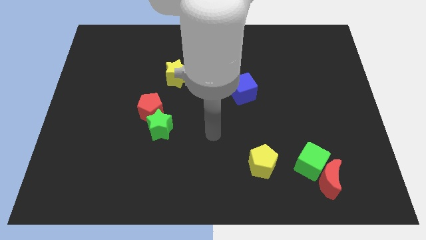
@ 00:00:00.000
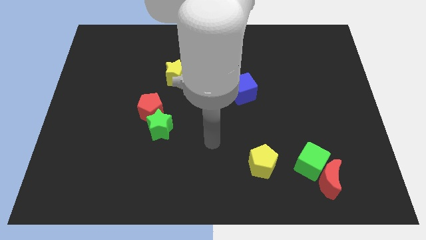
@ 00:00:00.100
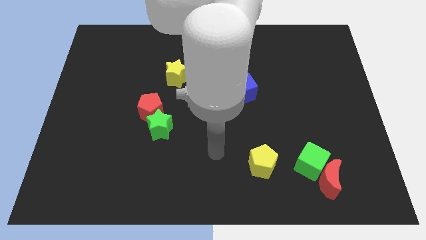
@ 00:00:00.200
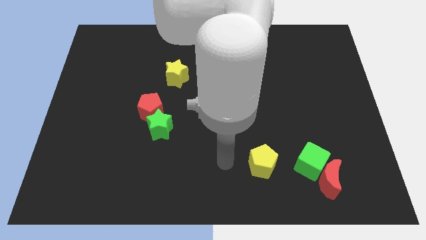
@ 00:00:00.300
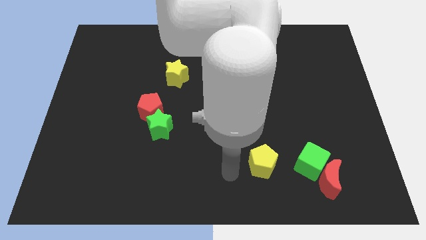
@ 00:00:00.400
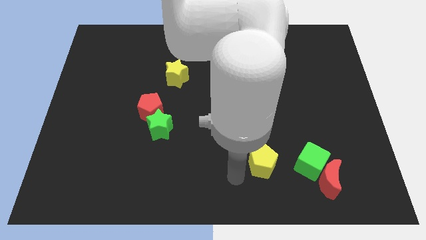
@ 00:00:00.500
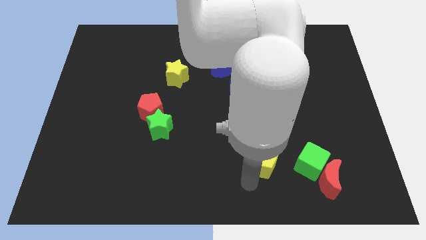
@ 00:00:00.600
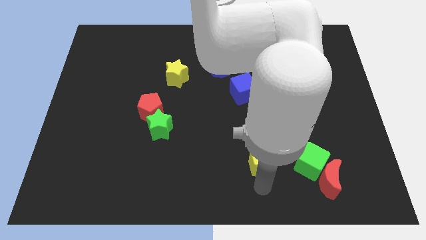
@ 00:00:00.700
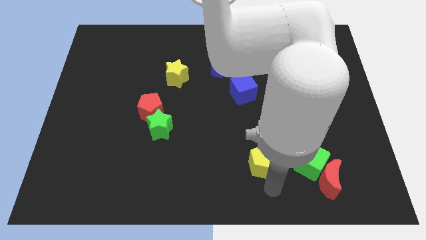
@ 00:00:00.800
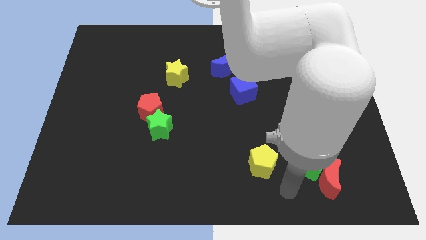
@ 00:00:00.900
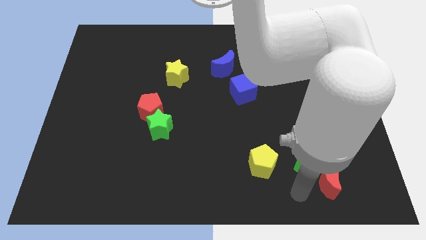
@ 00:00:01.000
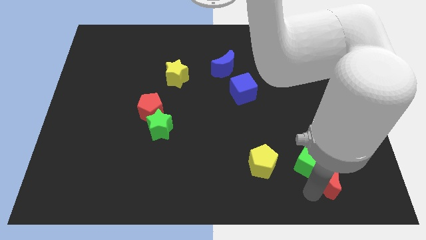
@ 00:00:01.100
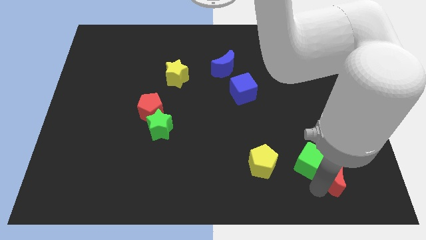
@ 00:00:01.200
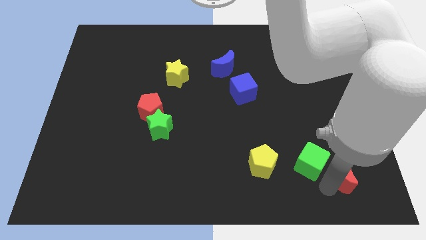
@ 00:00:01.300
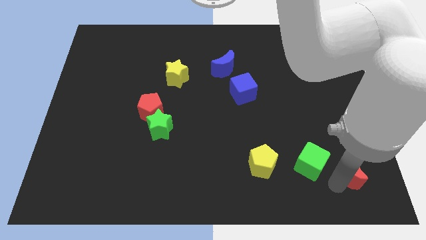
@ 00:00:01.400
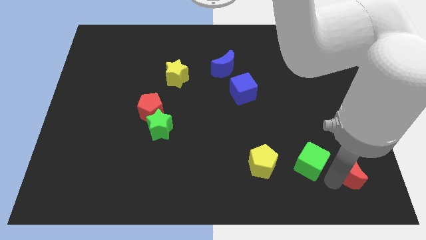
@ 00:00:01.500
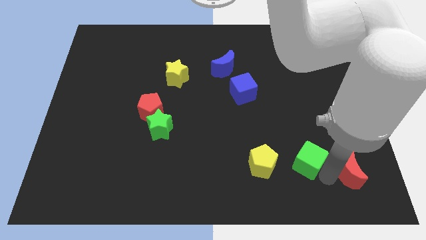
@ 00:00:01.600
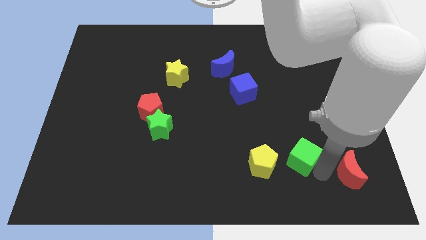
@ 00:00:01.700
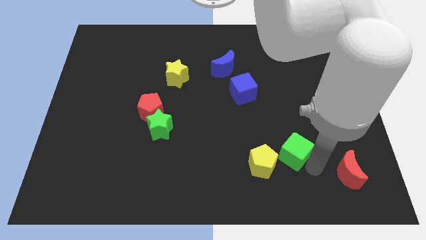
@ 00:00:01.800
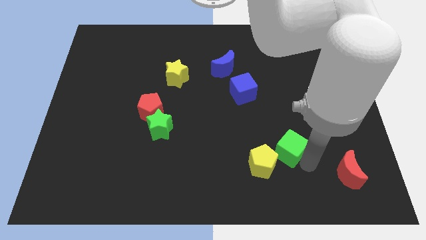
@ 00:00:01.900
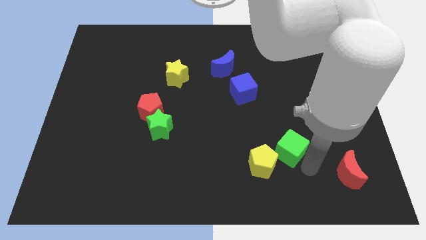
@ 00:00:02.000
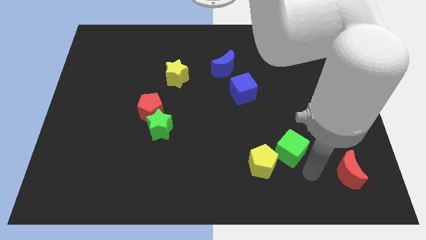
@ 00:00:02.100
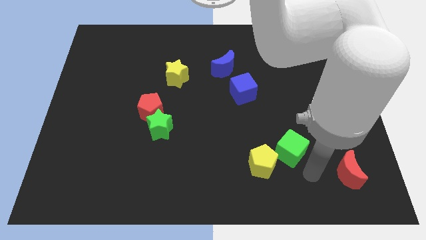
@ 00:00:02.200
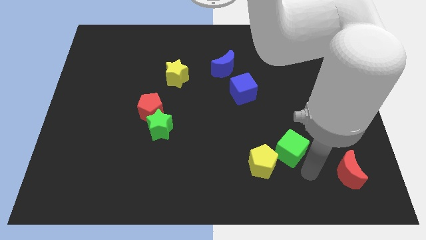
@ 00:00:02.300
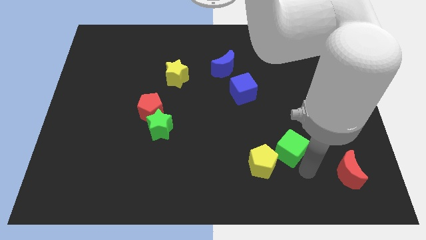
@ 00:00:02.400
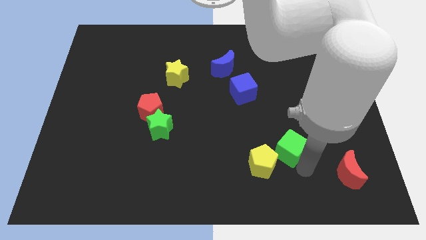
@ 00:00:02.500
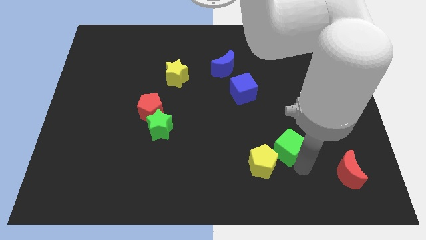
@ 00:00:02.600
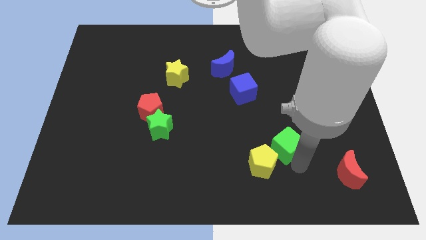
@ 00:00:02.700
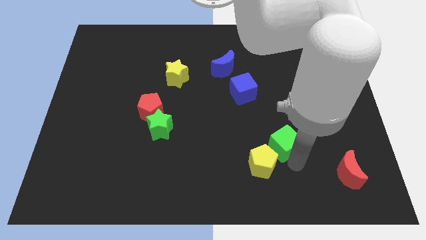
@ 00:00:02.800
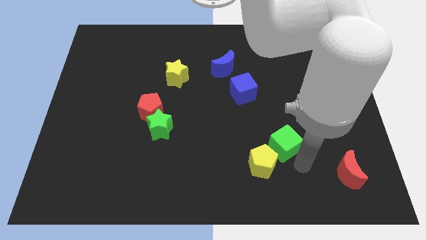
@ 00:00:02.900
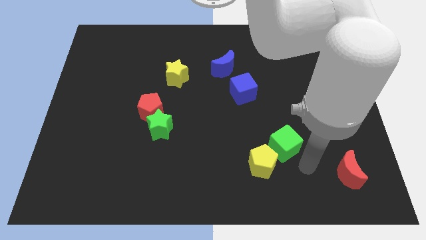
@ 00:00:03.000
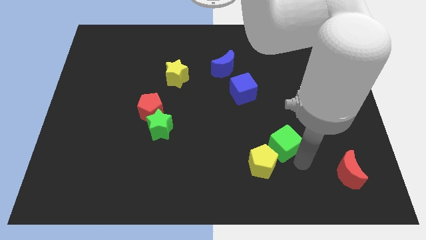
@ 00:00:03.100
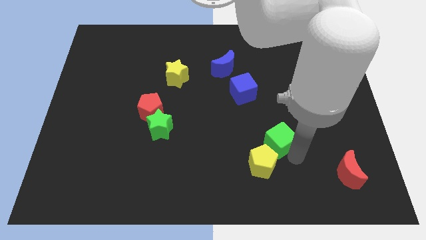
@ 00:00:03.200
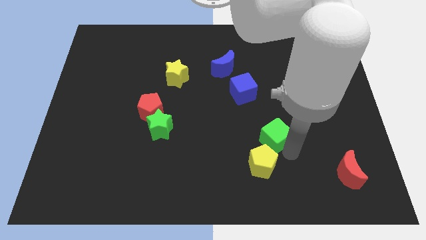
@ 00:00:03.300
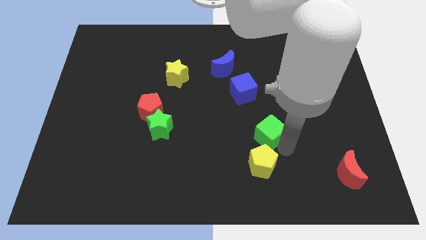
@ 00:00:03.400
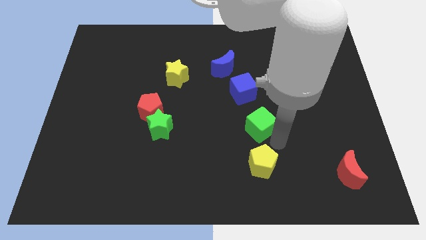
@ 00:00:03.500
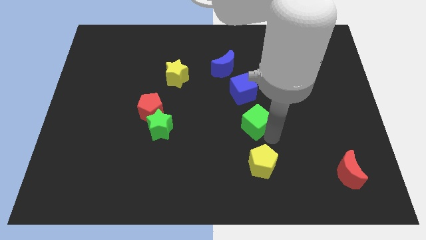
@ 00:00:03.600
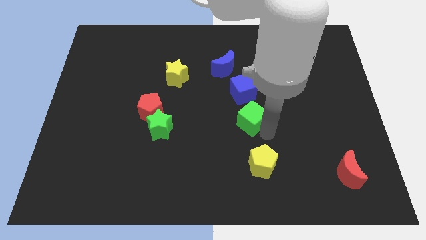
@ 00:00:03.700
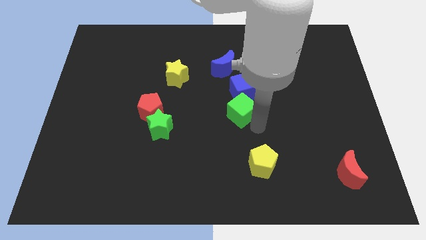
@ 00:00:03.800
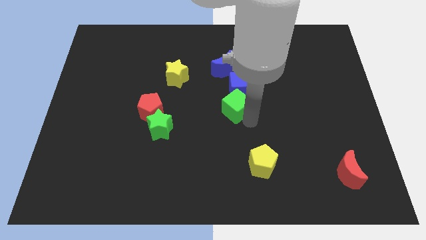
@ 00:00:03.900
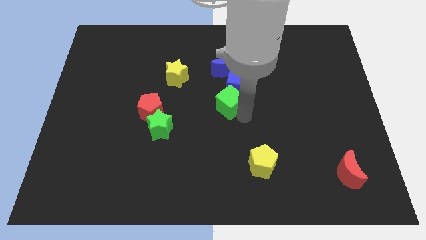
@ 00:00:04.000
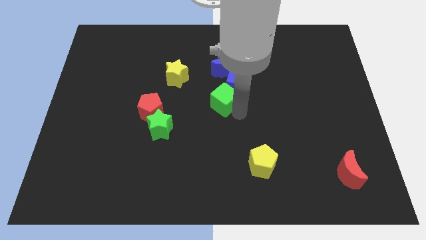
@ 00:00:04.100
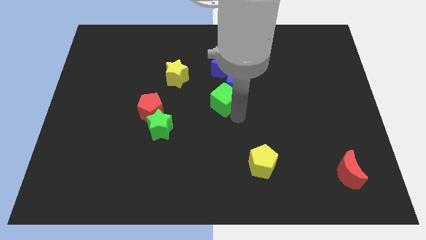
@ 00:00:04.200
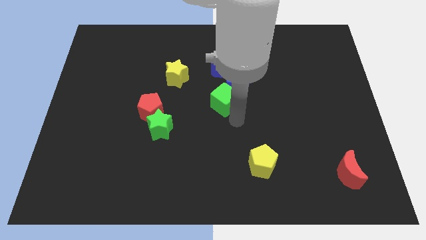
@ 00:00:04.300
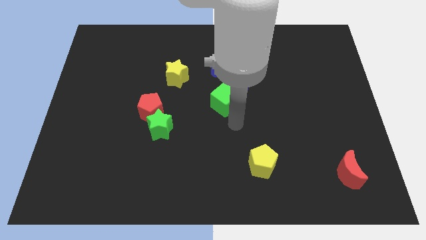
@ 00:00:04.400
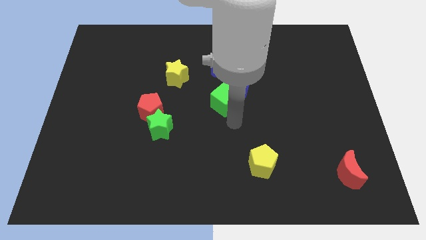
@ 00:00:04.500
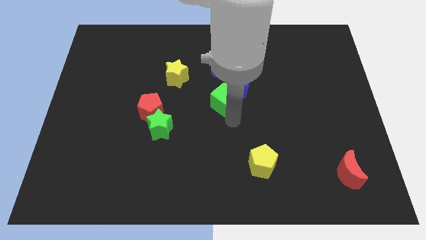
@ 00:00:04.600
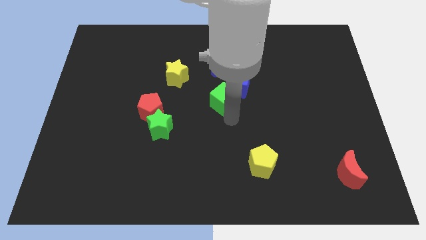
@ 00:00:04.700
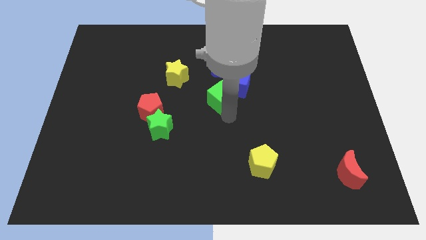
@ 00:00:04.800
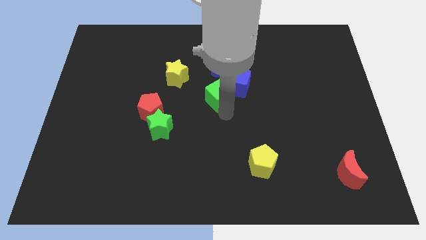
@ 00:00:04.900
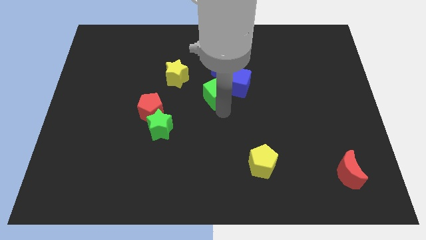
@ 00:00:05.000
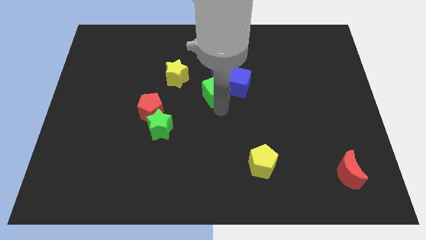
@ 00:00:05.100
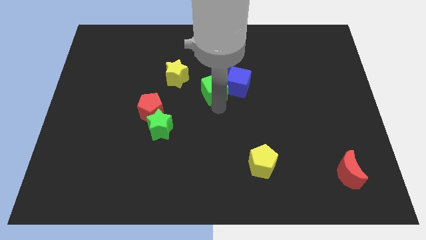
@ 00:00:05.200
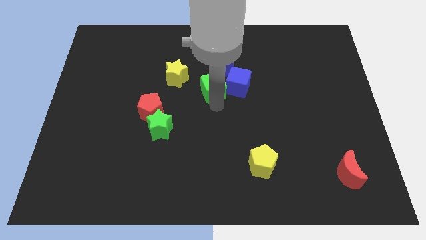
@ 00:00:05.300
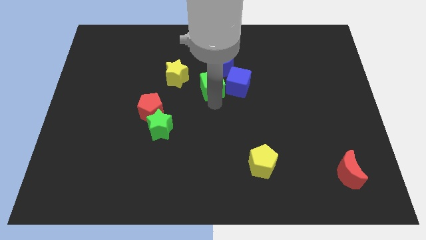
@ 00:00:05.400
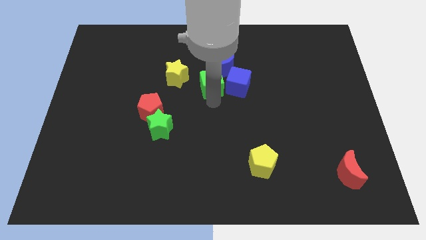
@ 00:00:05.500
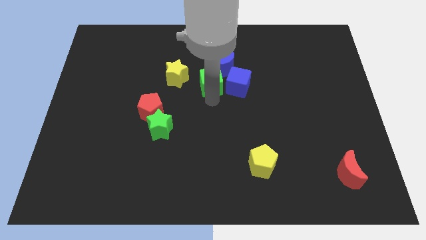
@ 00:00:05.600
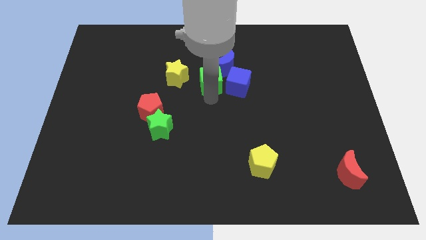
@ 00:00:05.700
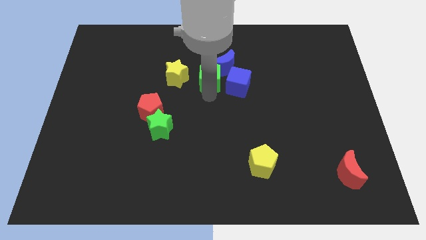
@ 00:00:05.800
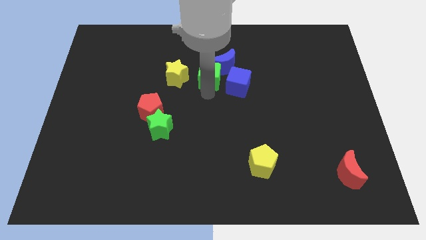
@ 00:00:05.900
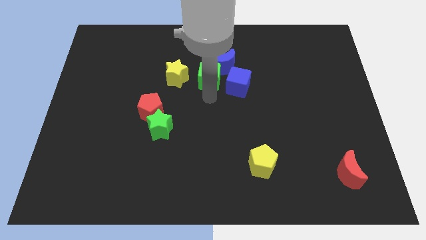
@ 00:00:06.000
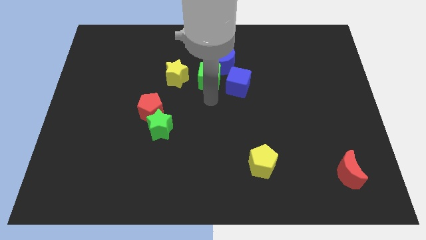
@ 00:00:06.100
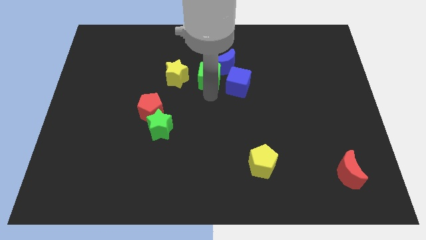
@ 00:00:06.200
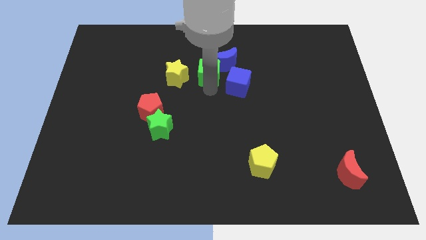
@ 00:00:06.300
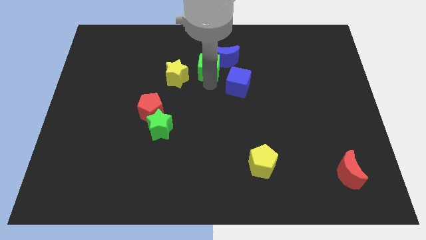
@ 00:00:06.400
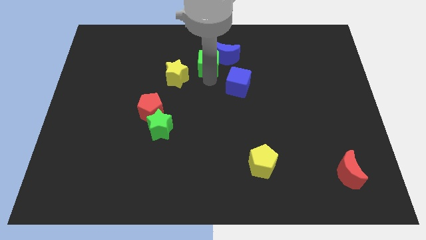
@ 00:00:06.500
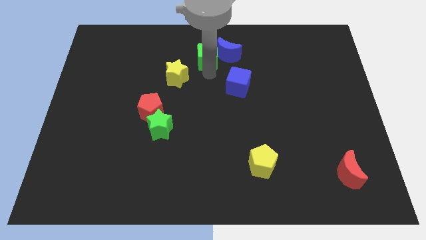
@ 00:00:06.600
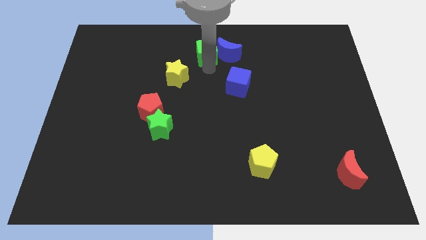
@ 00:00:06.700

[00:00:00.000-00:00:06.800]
move the green cube to the towards your base
